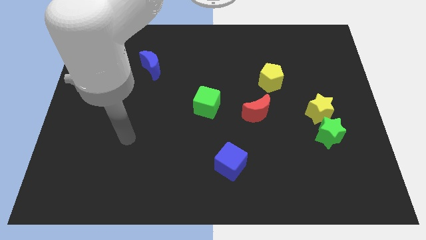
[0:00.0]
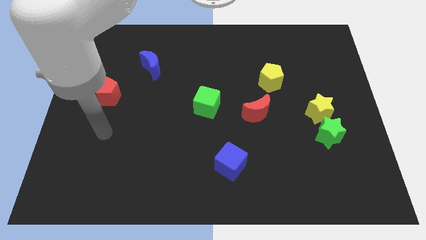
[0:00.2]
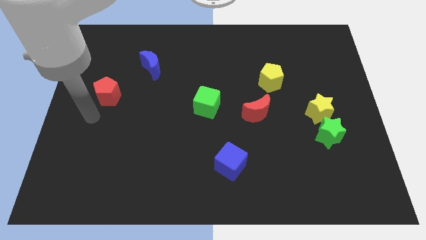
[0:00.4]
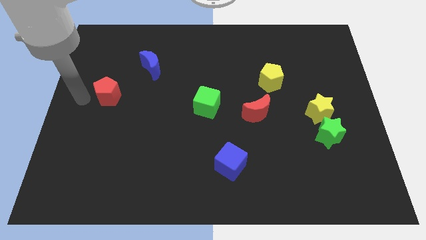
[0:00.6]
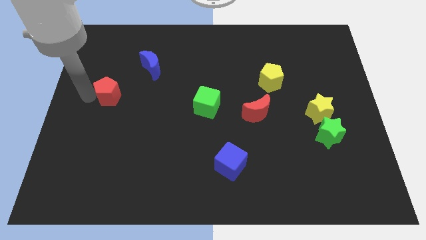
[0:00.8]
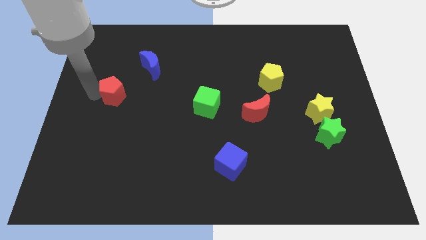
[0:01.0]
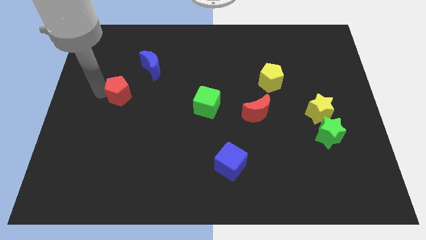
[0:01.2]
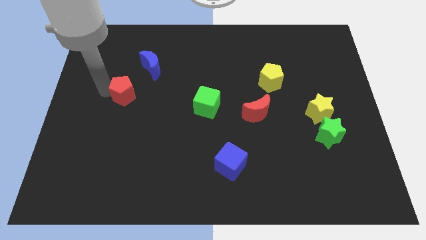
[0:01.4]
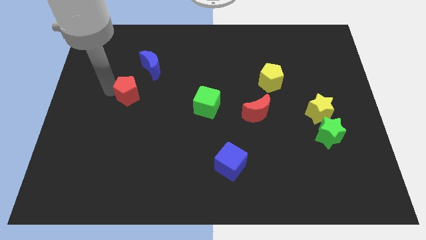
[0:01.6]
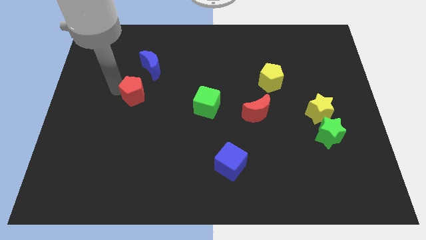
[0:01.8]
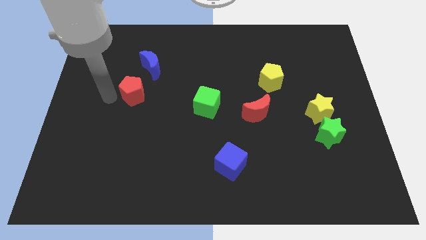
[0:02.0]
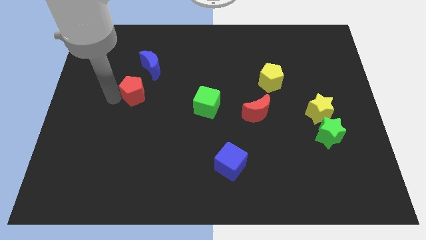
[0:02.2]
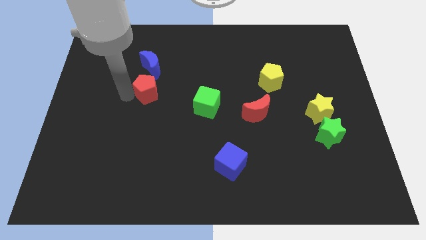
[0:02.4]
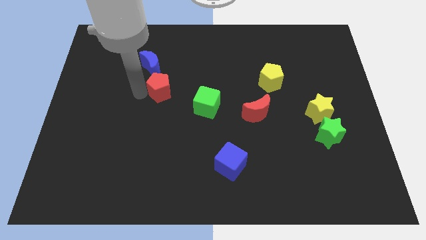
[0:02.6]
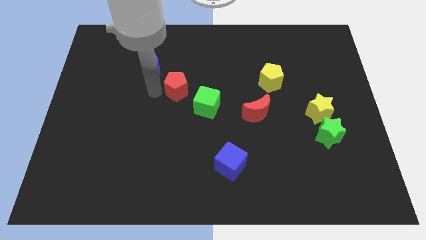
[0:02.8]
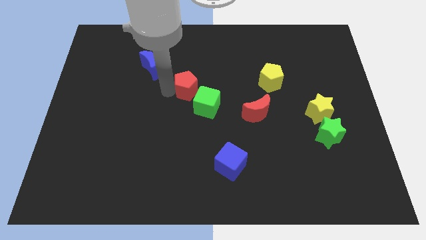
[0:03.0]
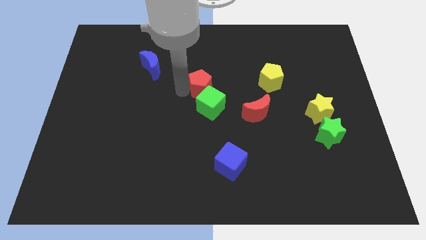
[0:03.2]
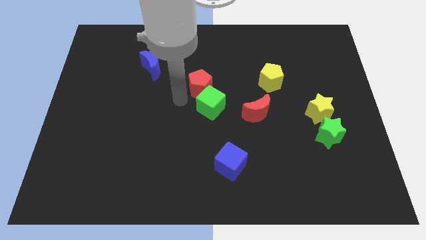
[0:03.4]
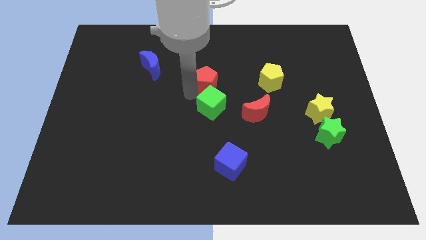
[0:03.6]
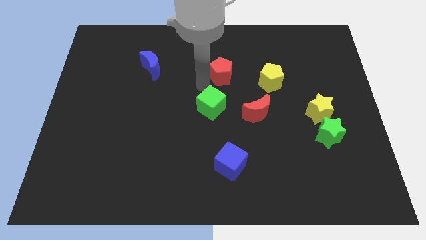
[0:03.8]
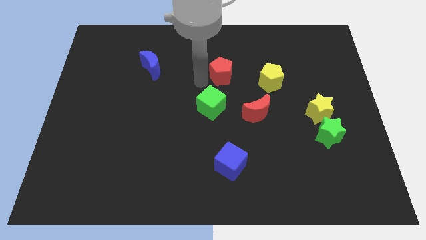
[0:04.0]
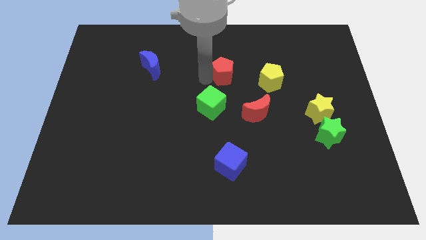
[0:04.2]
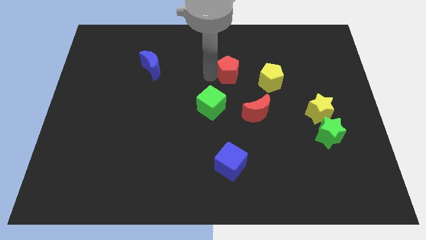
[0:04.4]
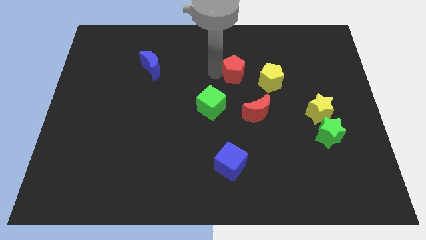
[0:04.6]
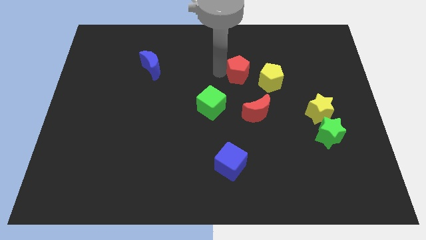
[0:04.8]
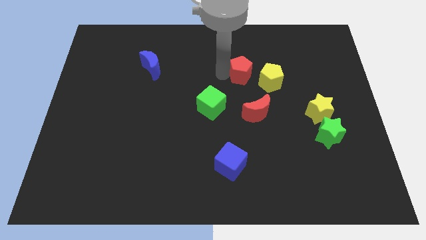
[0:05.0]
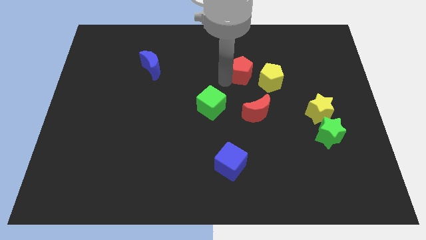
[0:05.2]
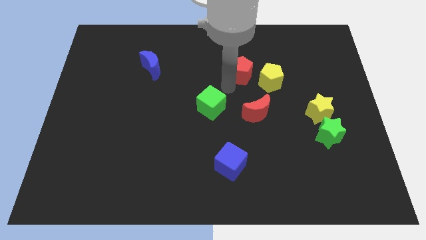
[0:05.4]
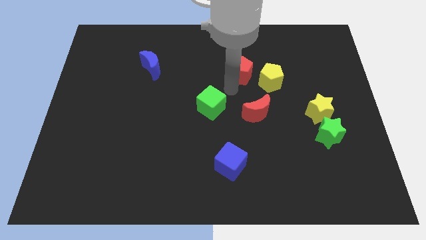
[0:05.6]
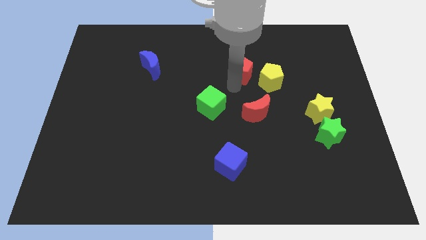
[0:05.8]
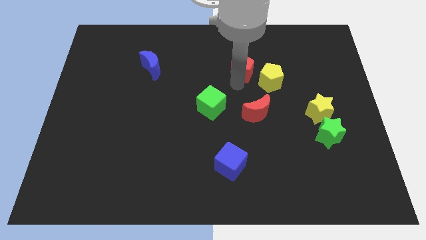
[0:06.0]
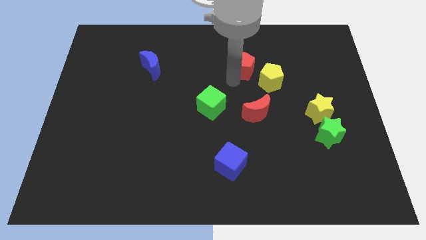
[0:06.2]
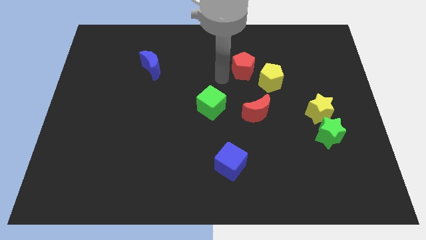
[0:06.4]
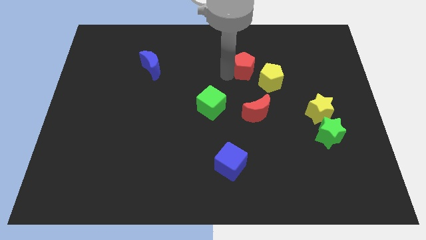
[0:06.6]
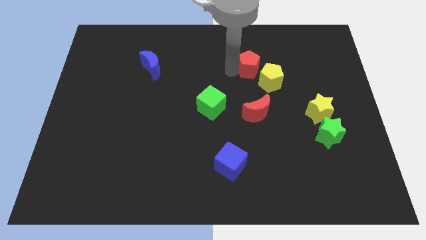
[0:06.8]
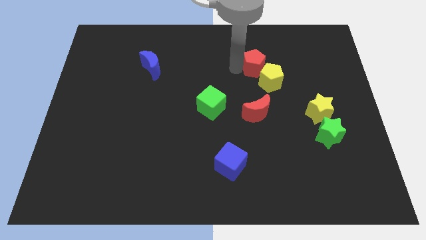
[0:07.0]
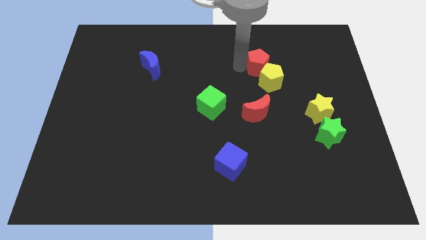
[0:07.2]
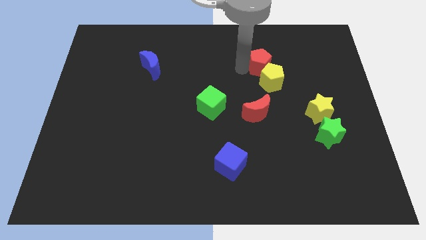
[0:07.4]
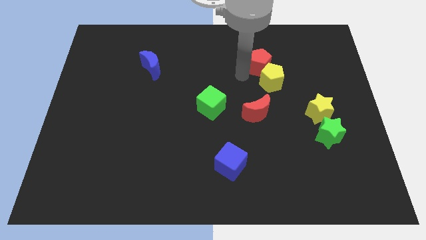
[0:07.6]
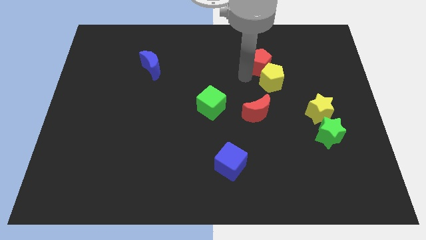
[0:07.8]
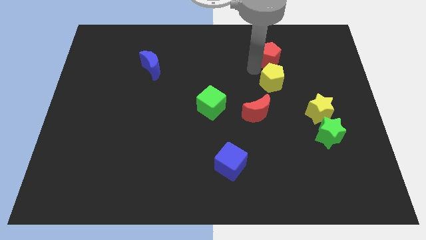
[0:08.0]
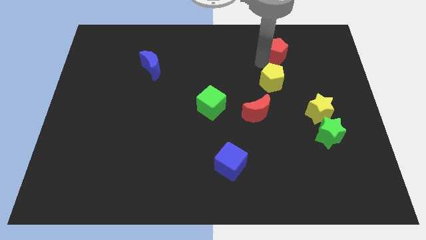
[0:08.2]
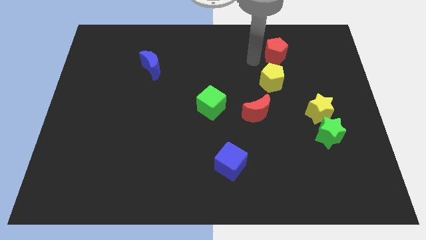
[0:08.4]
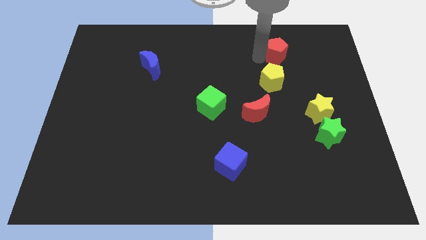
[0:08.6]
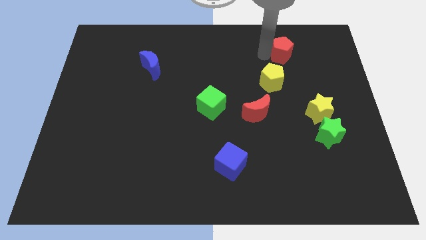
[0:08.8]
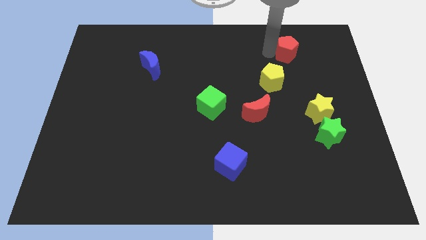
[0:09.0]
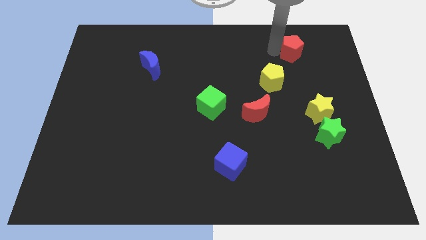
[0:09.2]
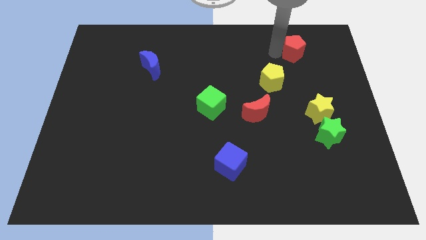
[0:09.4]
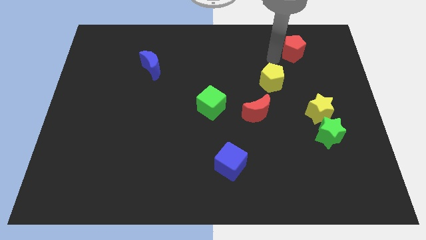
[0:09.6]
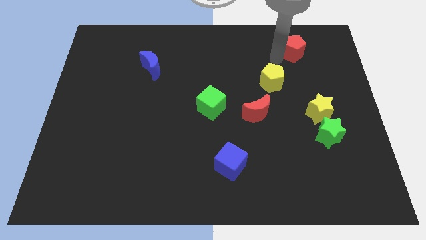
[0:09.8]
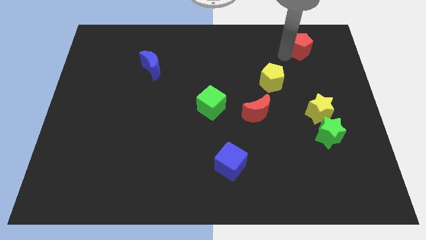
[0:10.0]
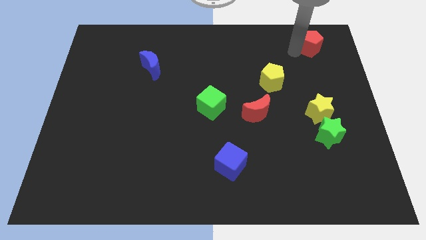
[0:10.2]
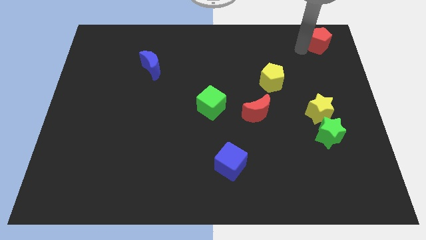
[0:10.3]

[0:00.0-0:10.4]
push the red pentagon to the top right of the board
